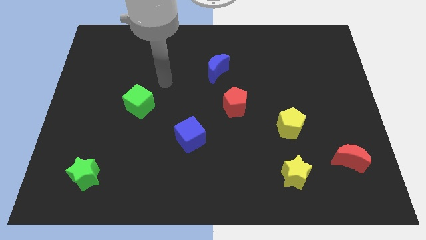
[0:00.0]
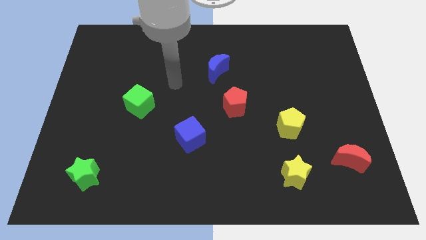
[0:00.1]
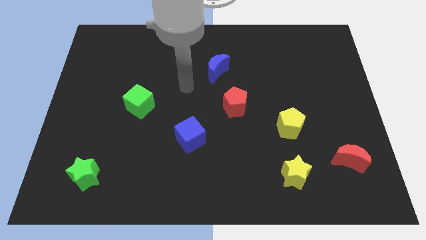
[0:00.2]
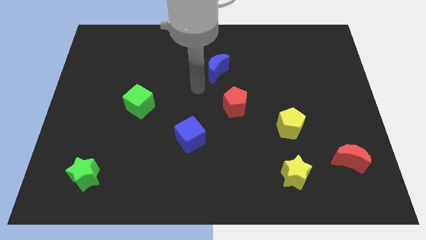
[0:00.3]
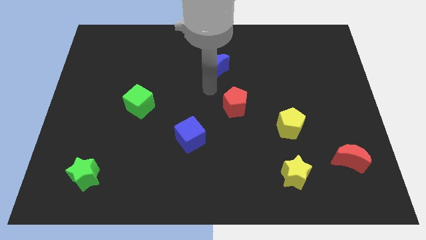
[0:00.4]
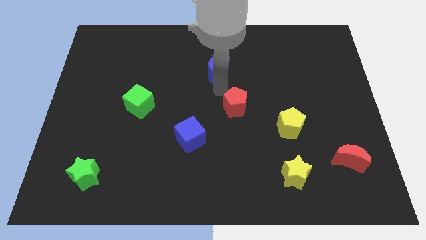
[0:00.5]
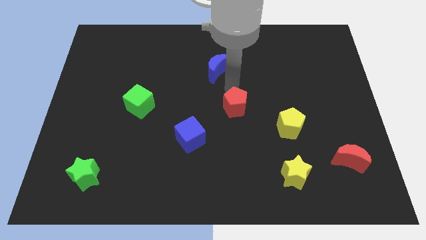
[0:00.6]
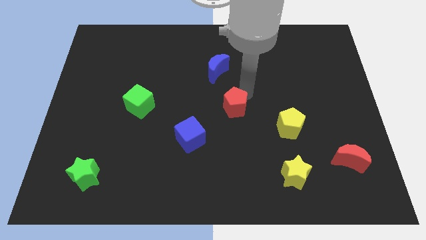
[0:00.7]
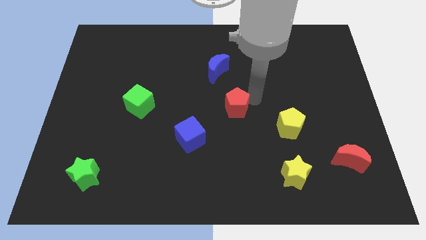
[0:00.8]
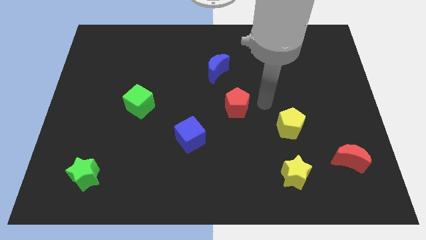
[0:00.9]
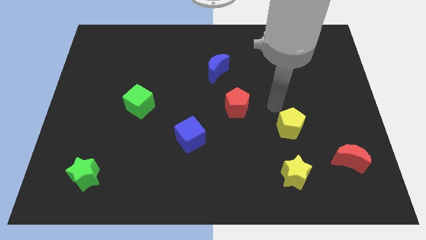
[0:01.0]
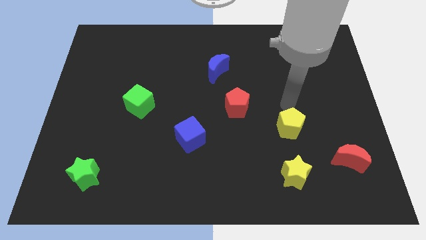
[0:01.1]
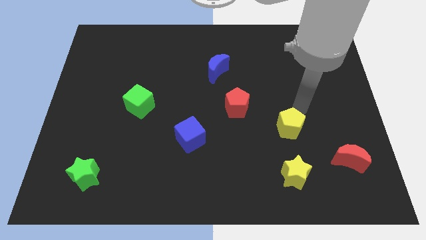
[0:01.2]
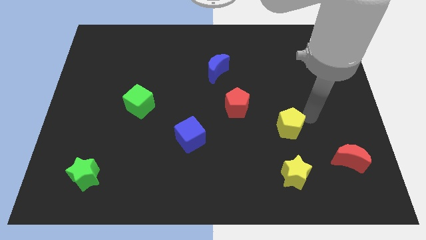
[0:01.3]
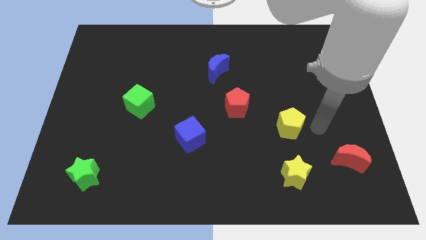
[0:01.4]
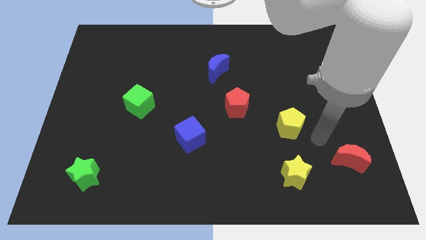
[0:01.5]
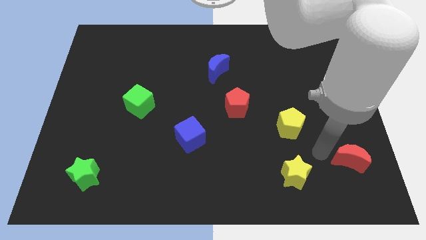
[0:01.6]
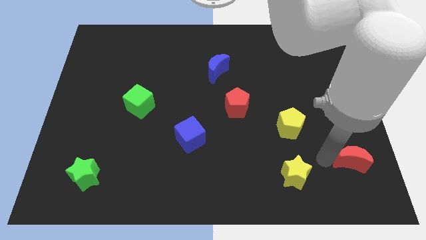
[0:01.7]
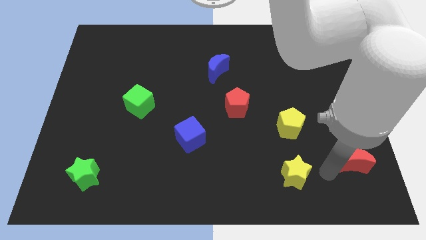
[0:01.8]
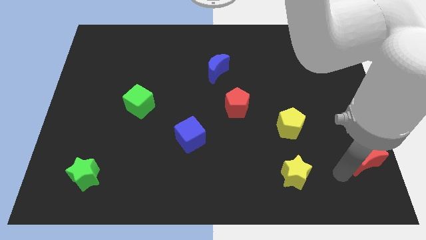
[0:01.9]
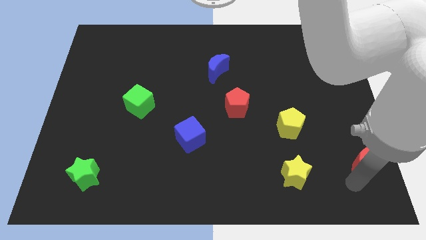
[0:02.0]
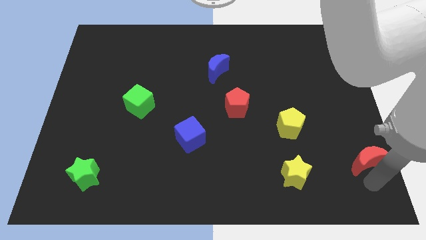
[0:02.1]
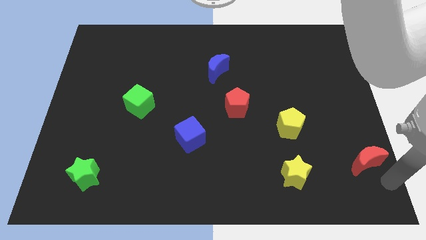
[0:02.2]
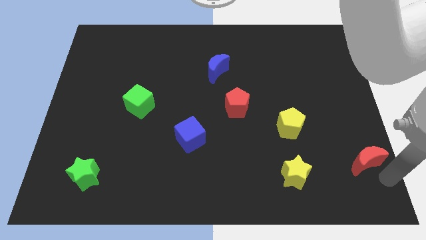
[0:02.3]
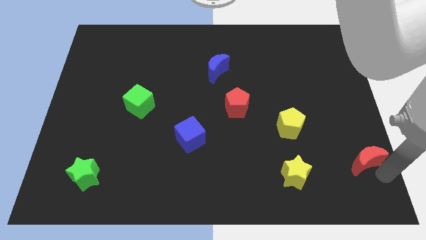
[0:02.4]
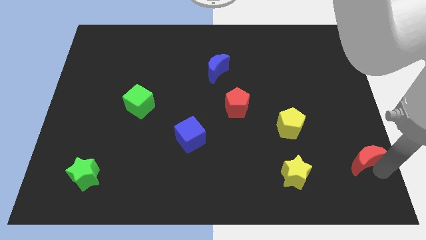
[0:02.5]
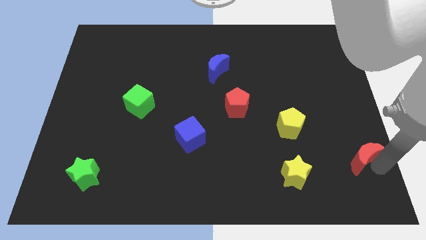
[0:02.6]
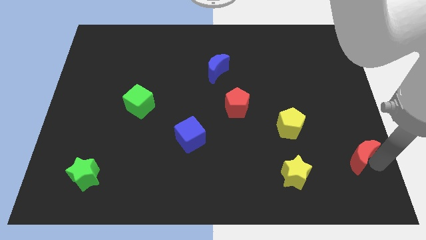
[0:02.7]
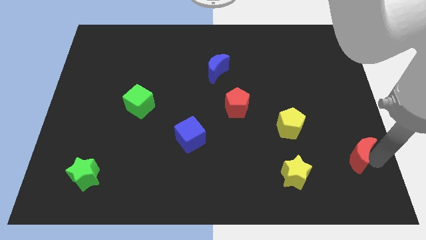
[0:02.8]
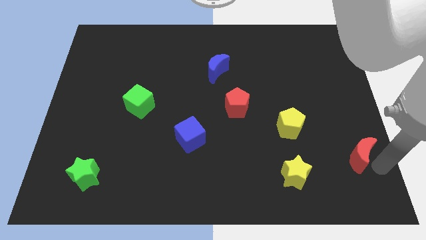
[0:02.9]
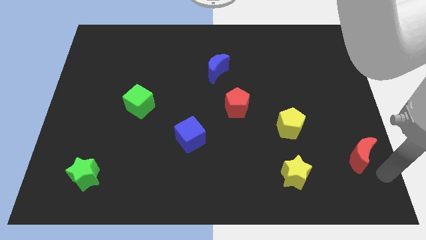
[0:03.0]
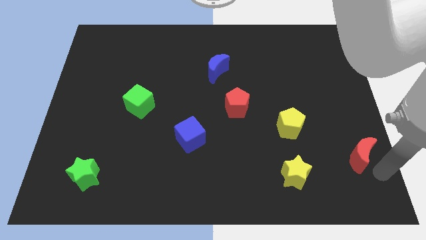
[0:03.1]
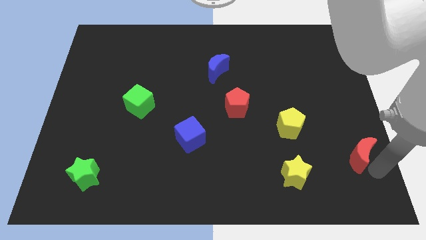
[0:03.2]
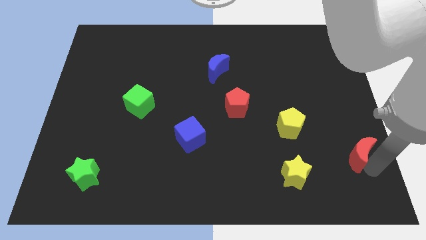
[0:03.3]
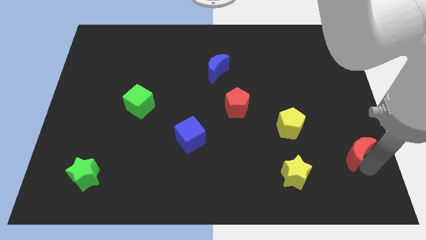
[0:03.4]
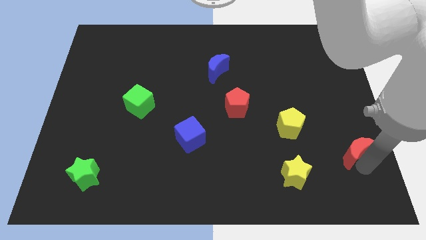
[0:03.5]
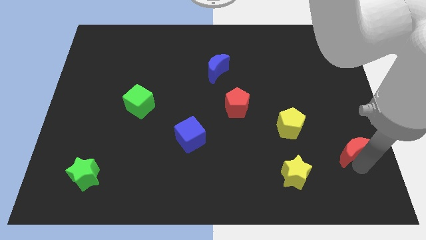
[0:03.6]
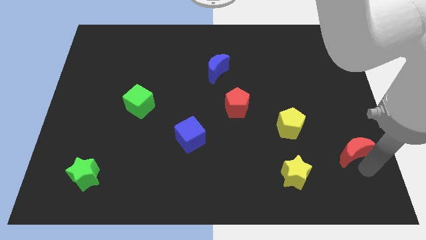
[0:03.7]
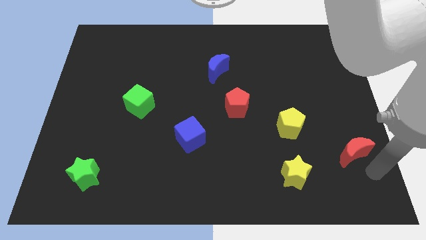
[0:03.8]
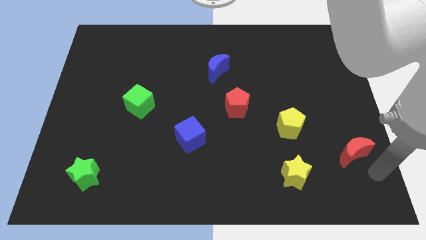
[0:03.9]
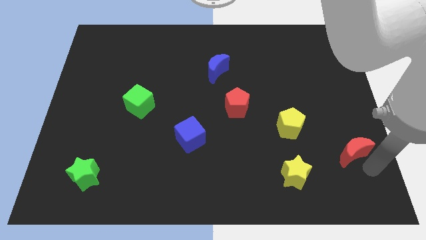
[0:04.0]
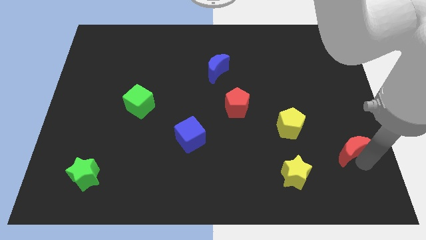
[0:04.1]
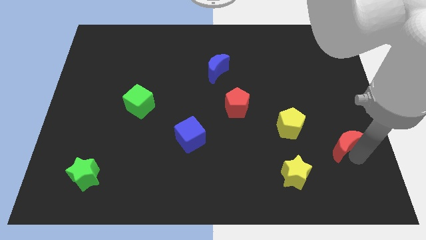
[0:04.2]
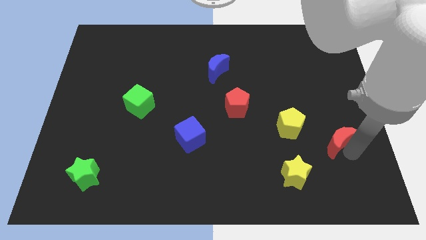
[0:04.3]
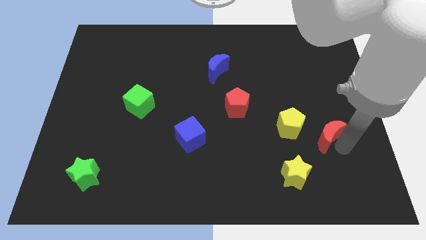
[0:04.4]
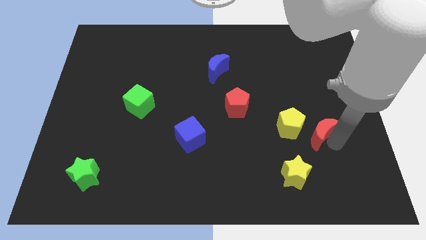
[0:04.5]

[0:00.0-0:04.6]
slightly slide the red moon upwards and left diagonally

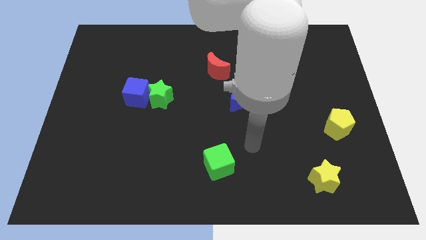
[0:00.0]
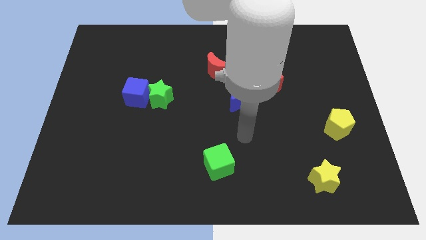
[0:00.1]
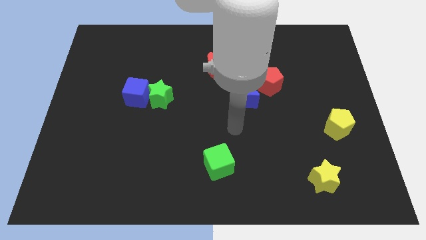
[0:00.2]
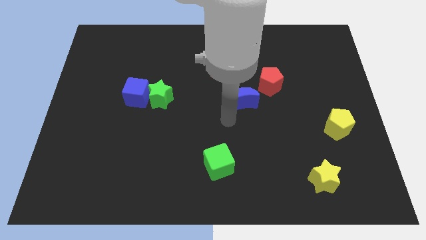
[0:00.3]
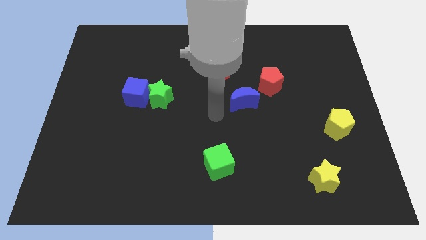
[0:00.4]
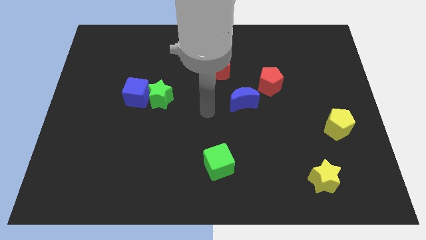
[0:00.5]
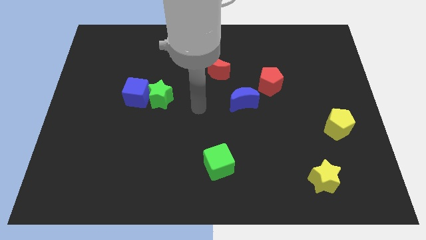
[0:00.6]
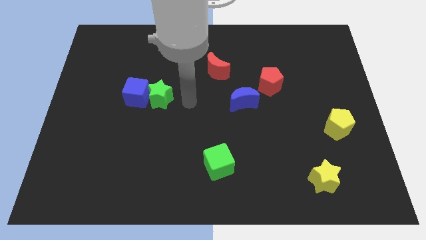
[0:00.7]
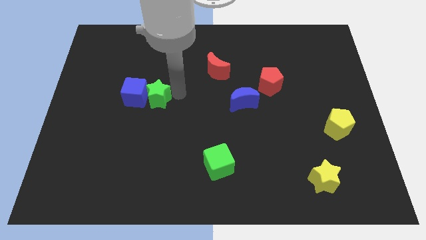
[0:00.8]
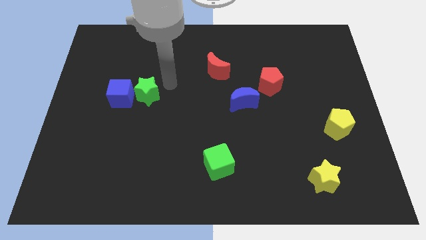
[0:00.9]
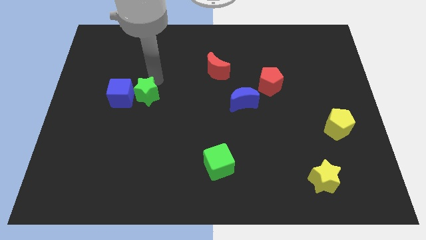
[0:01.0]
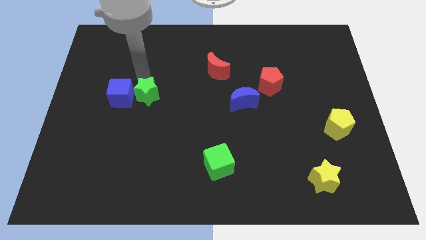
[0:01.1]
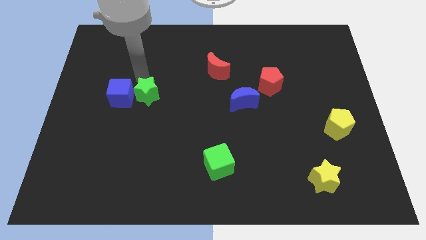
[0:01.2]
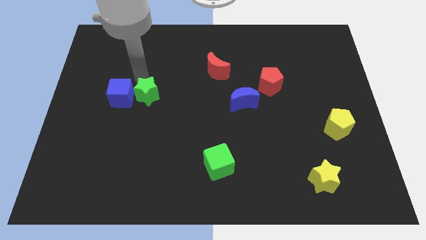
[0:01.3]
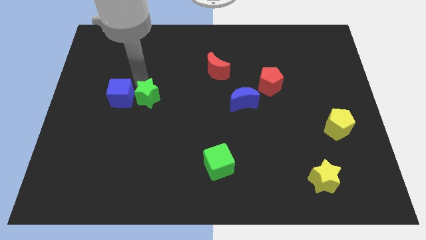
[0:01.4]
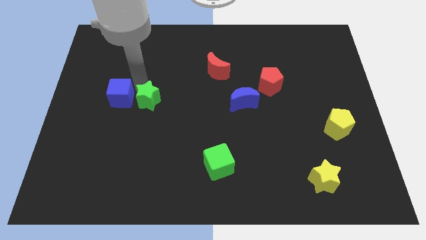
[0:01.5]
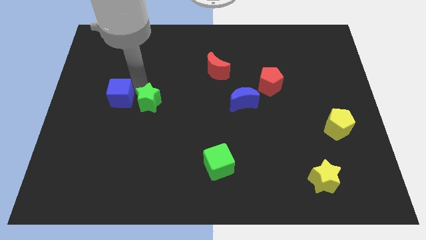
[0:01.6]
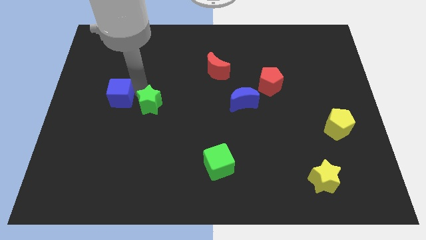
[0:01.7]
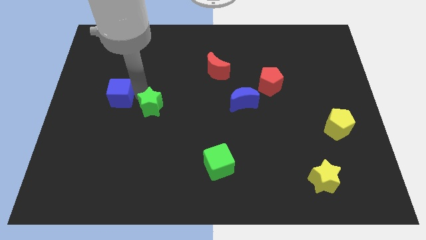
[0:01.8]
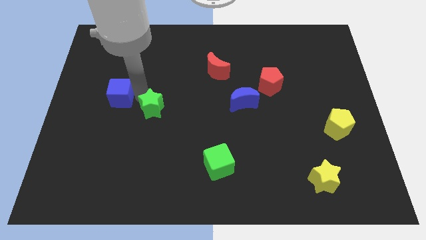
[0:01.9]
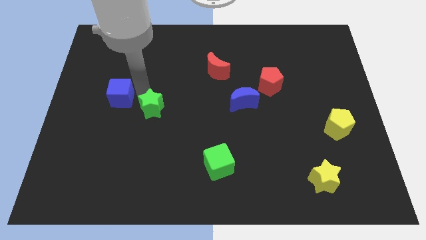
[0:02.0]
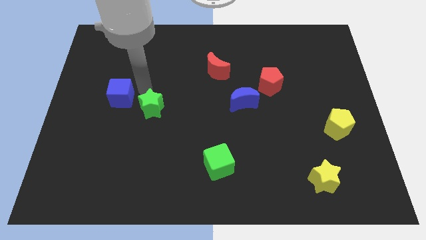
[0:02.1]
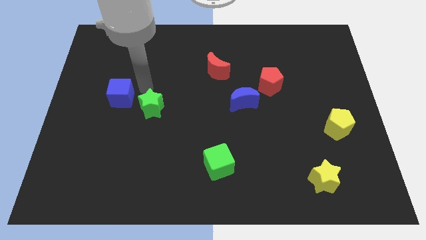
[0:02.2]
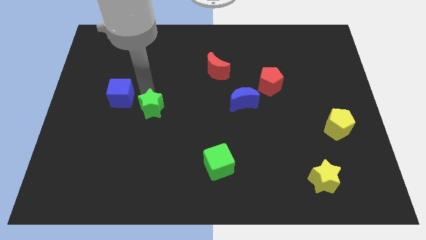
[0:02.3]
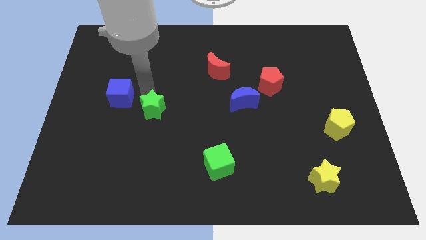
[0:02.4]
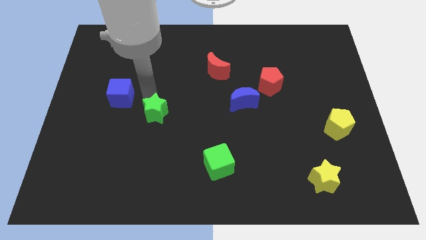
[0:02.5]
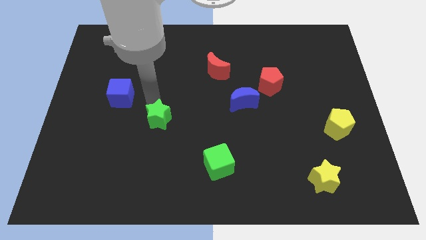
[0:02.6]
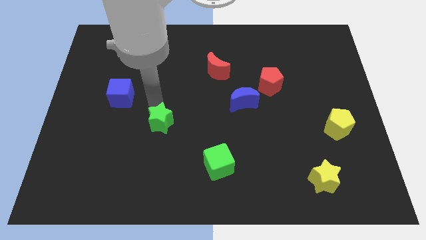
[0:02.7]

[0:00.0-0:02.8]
slide the green star a bit downwards

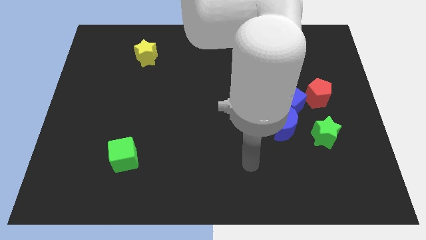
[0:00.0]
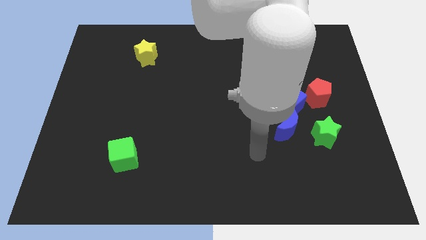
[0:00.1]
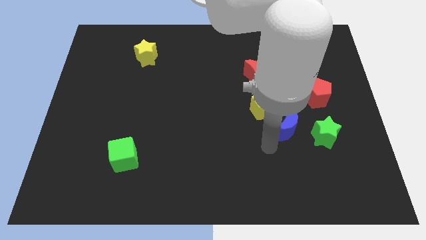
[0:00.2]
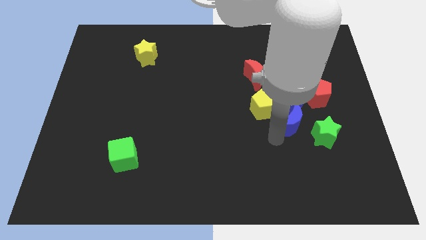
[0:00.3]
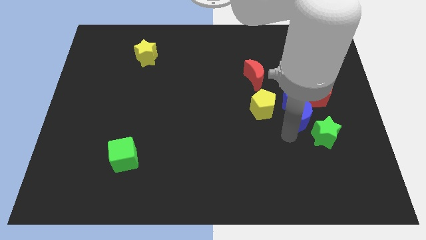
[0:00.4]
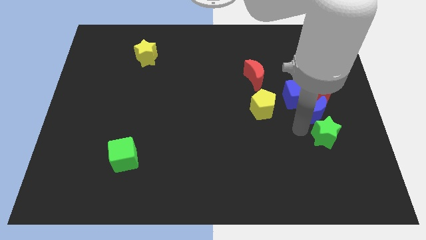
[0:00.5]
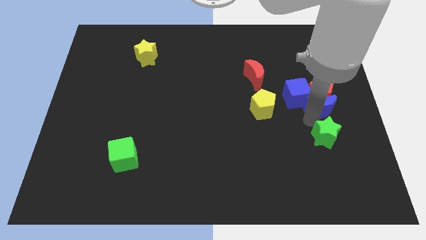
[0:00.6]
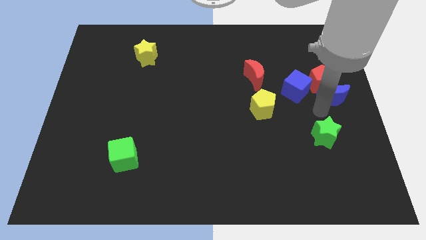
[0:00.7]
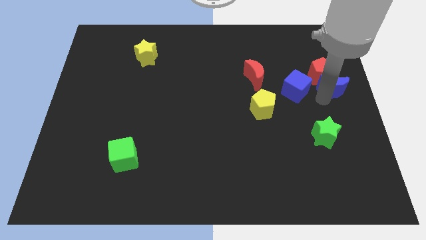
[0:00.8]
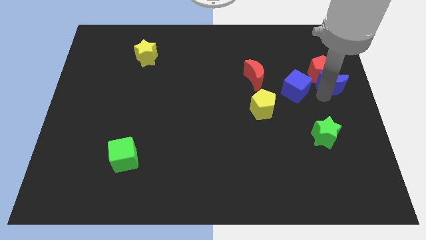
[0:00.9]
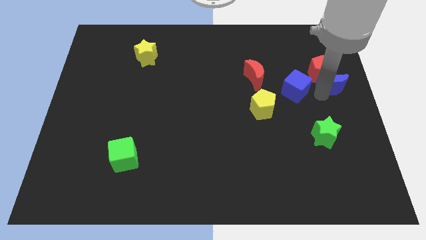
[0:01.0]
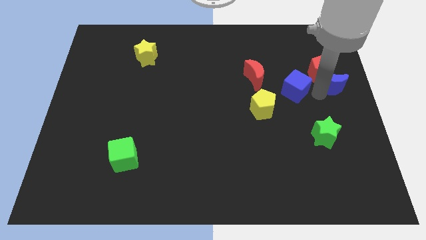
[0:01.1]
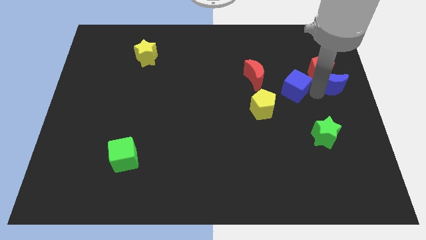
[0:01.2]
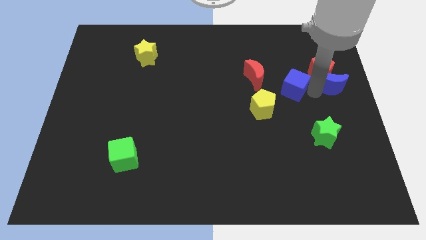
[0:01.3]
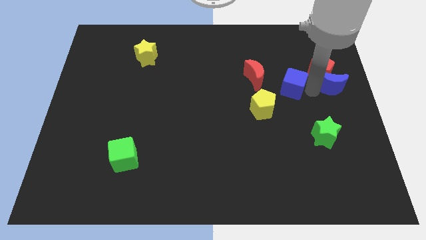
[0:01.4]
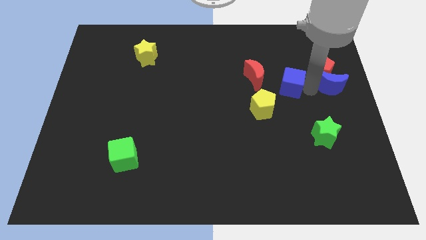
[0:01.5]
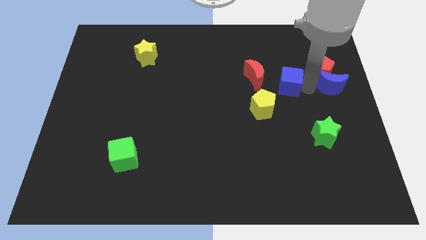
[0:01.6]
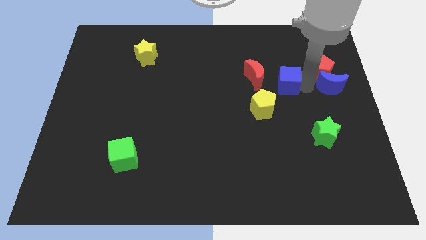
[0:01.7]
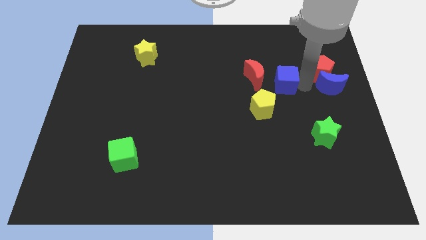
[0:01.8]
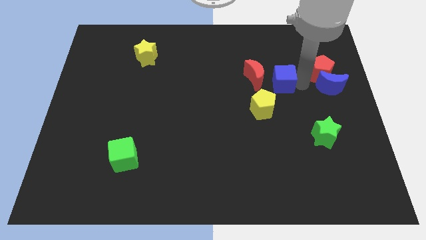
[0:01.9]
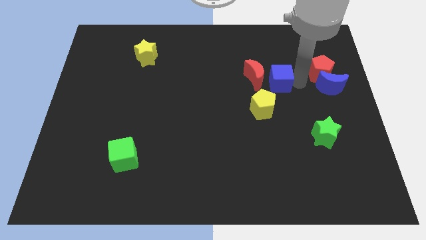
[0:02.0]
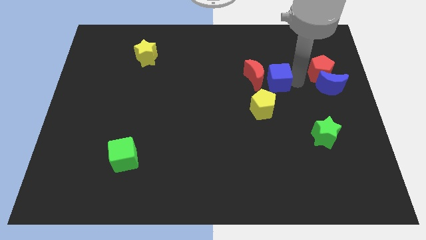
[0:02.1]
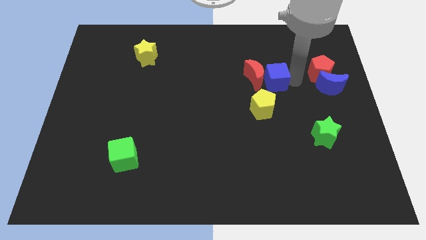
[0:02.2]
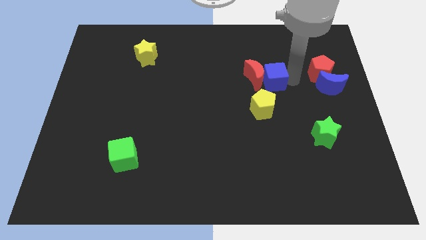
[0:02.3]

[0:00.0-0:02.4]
slightly slide the blue cube up and left
